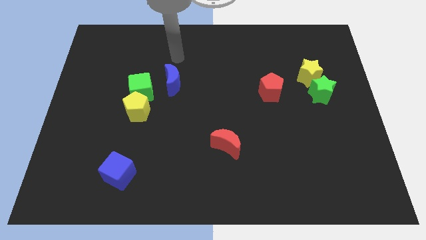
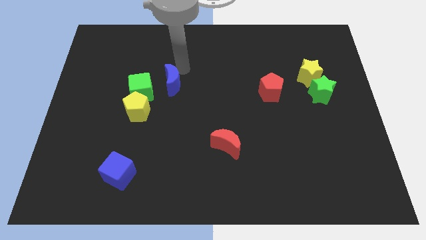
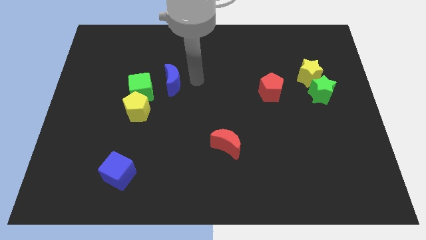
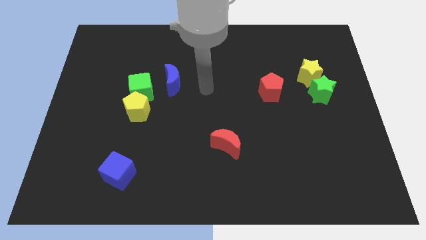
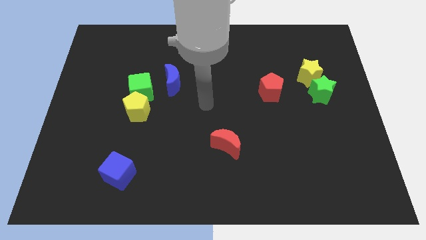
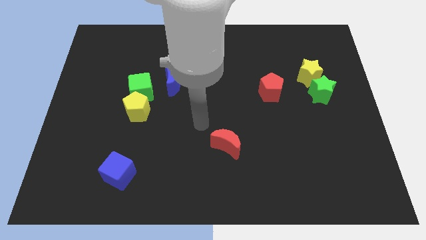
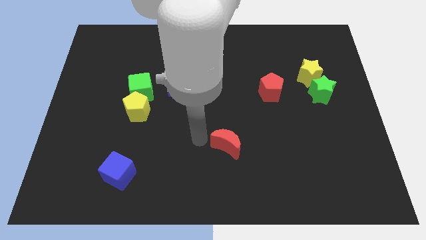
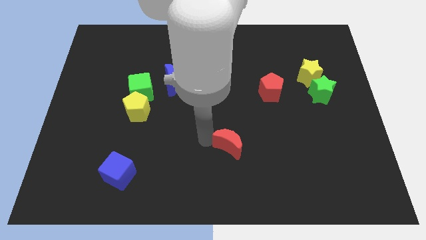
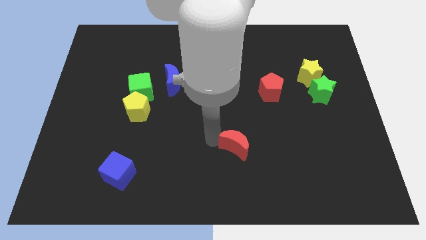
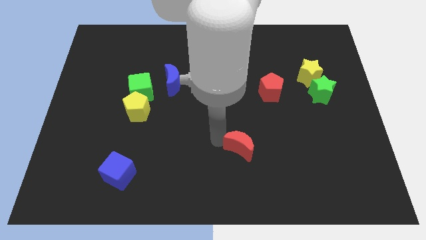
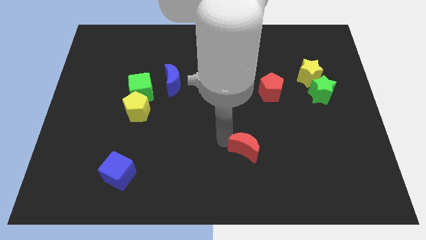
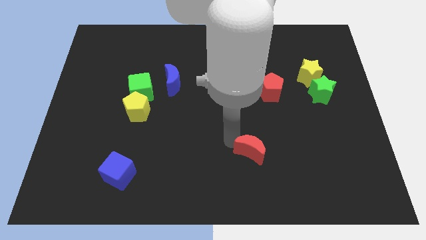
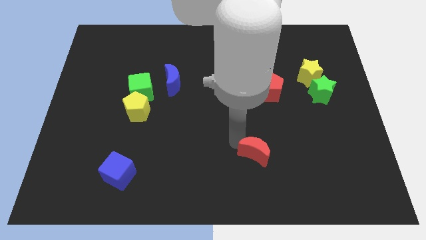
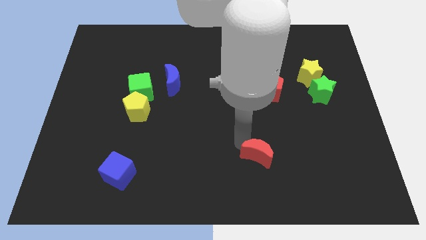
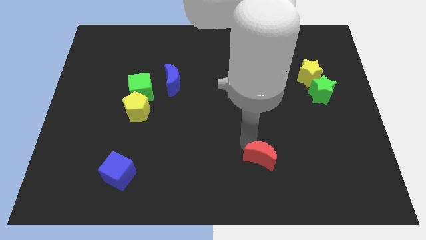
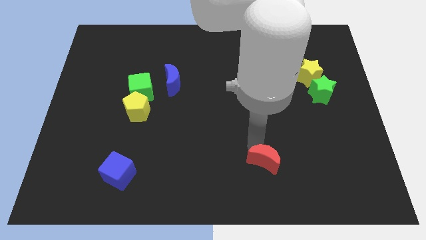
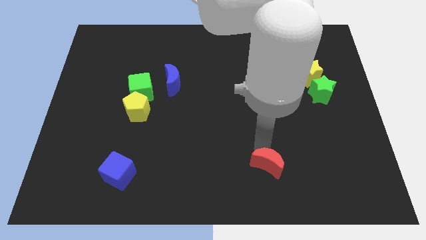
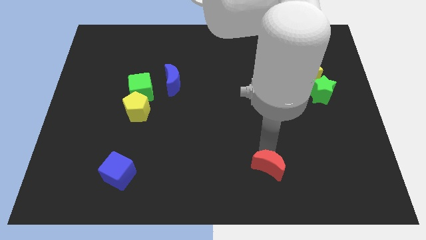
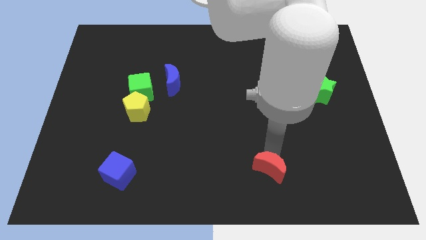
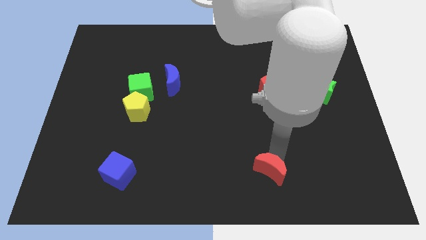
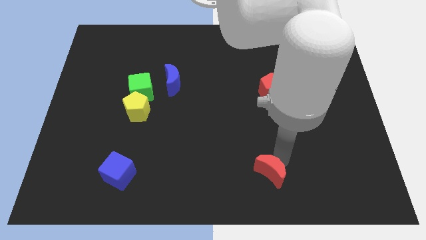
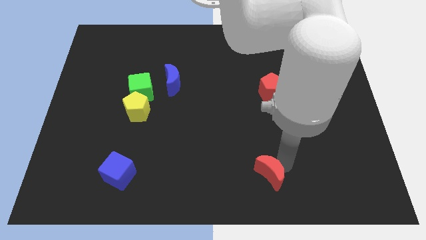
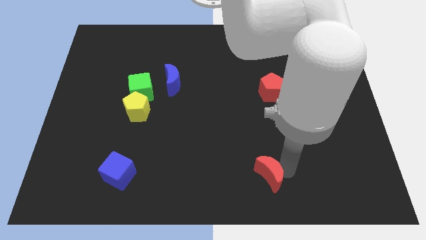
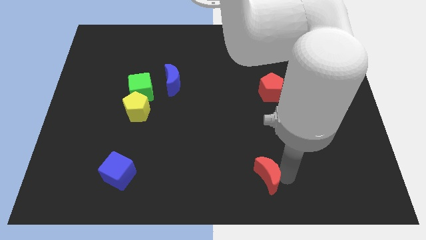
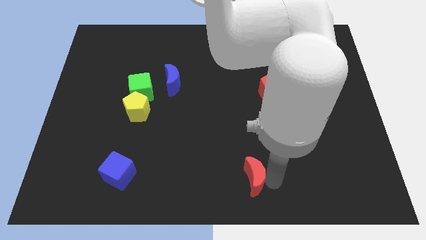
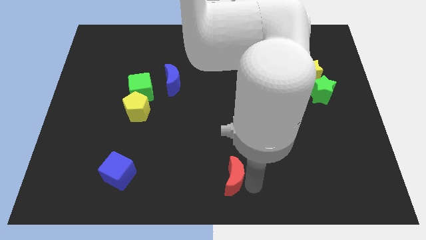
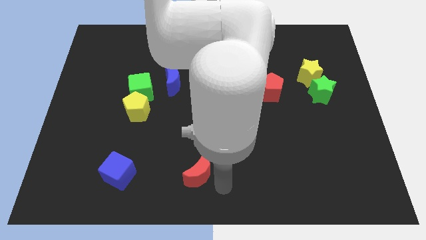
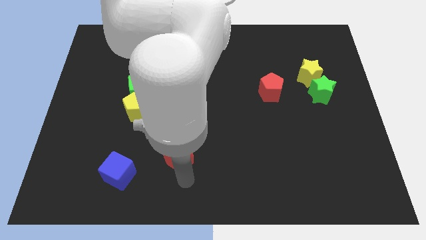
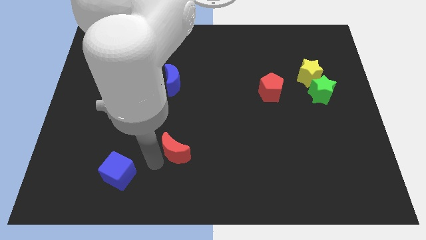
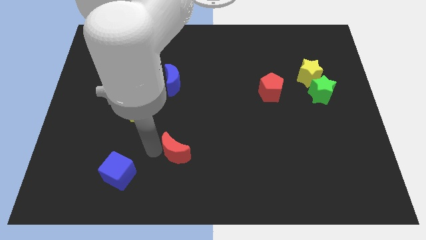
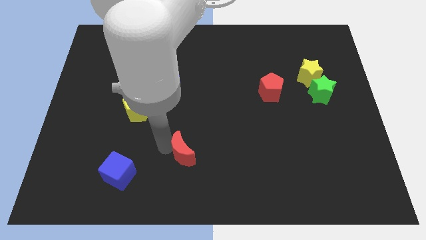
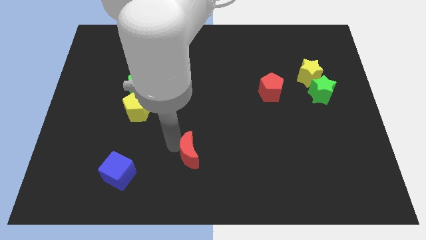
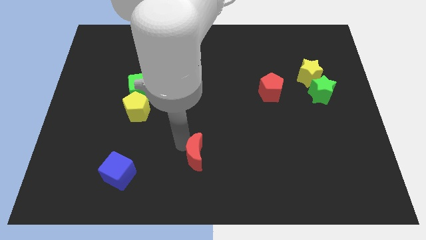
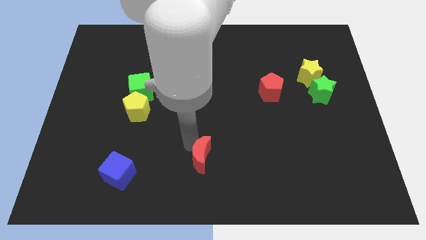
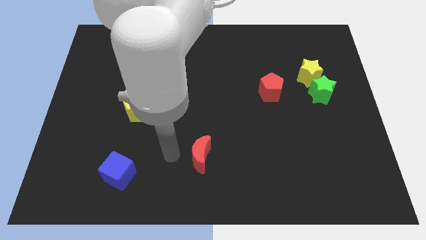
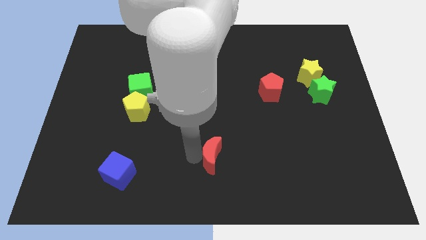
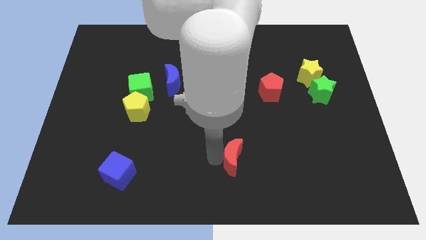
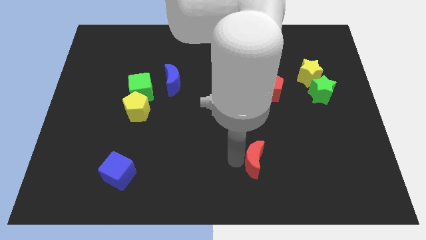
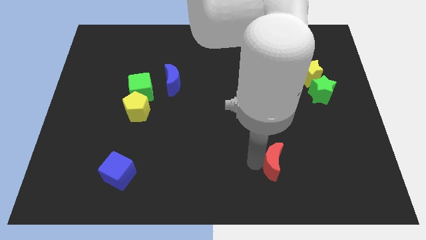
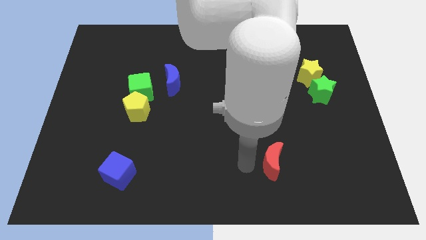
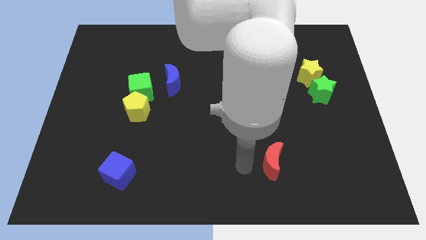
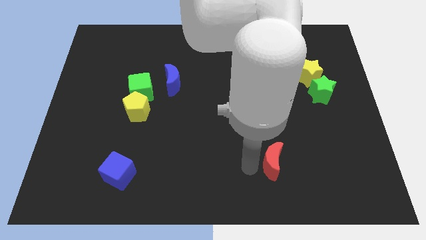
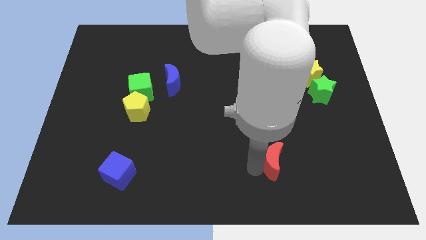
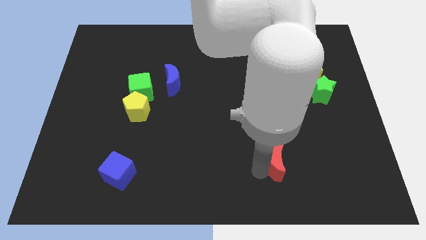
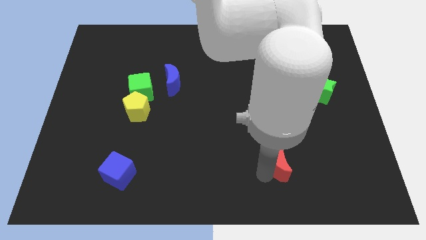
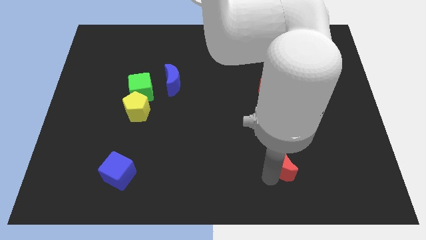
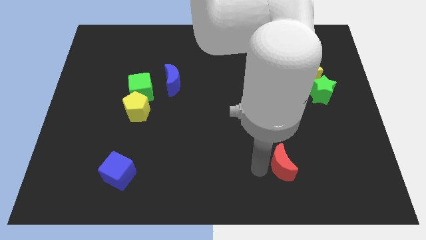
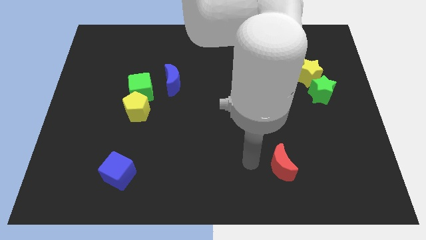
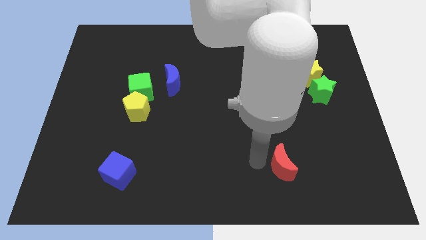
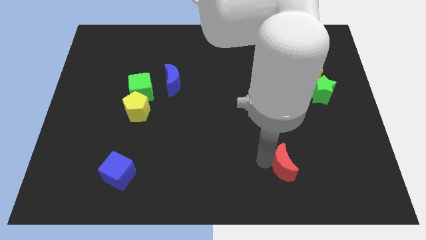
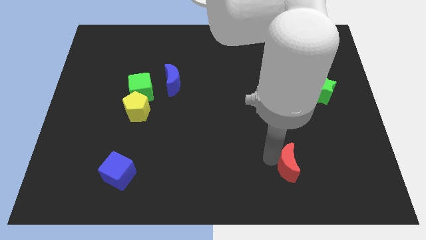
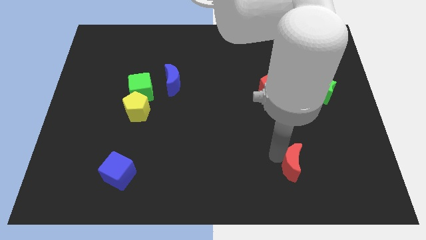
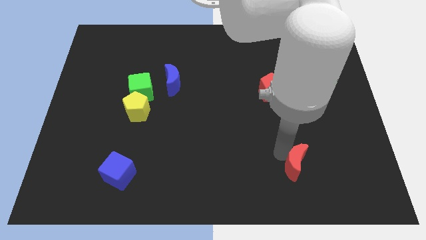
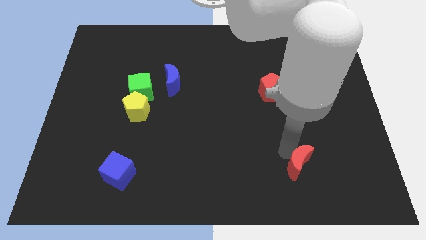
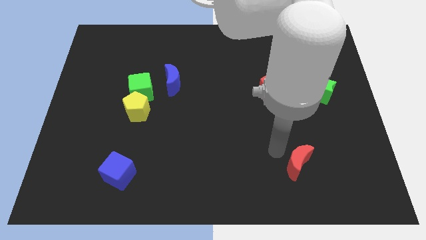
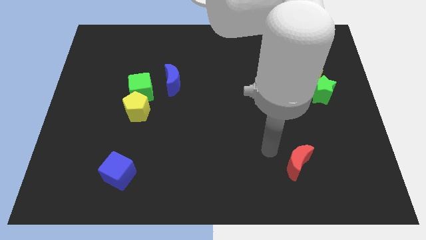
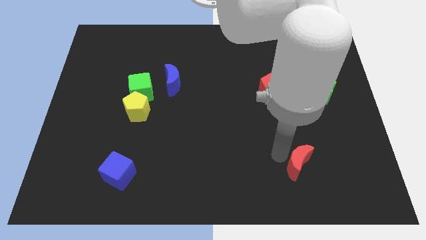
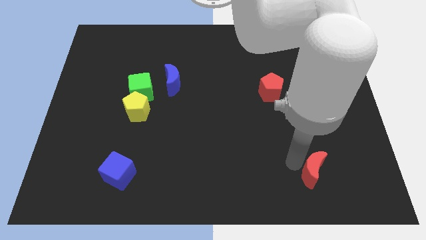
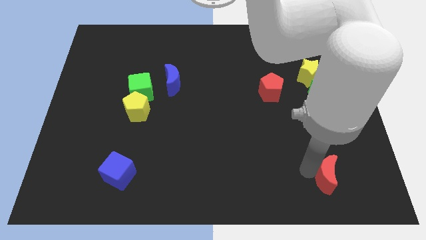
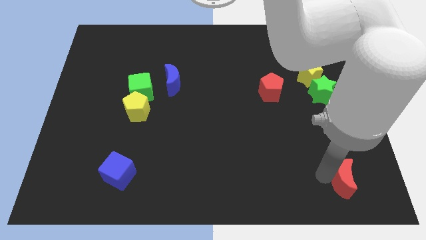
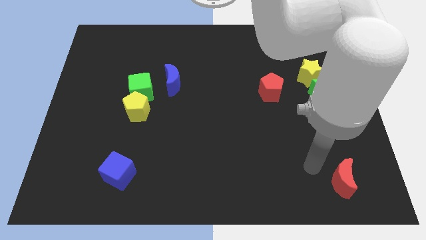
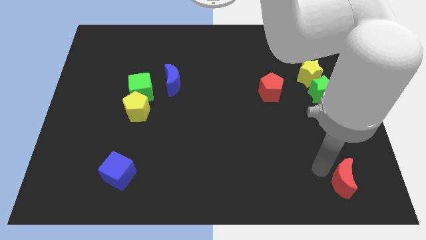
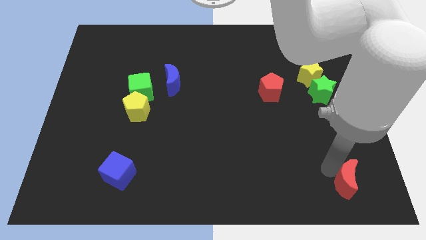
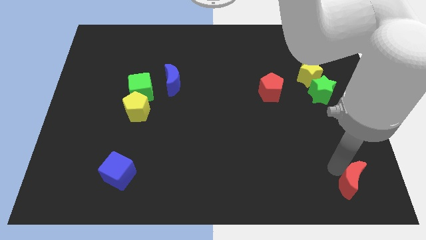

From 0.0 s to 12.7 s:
push the red moon to the bottom right corner
